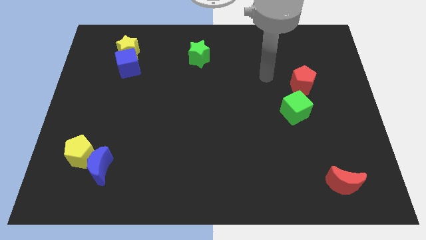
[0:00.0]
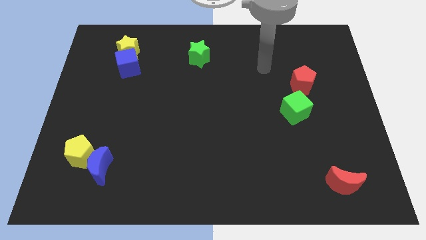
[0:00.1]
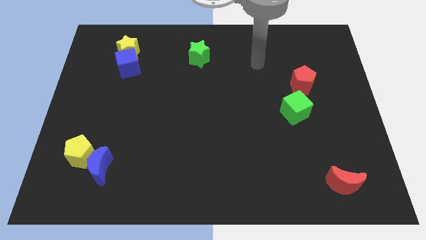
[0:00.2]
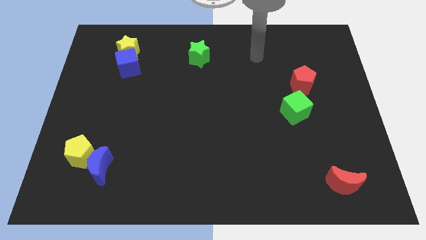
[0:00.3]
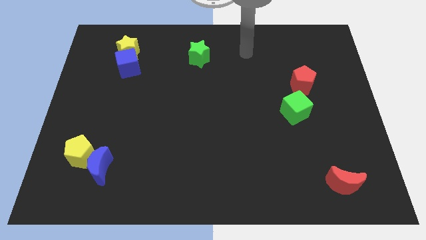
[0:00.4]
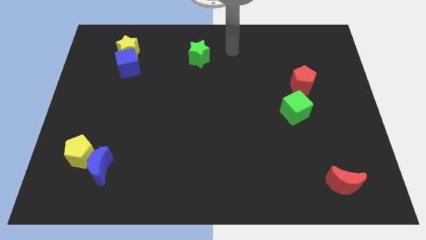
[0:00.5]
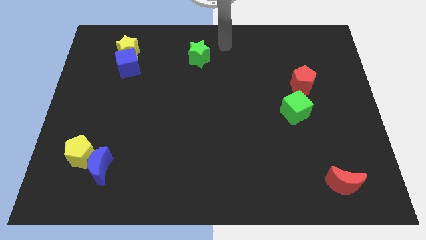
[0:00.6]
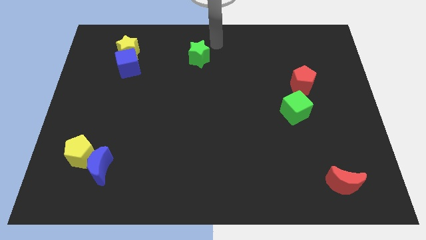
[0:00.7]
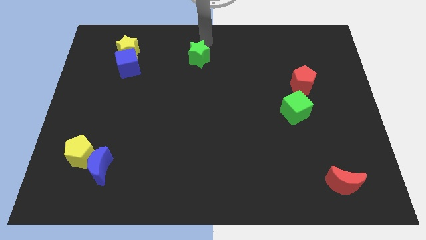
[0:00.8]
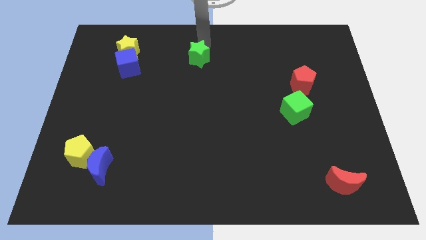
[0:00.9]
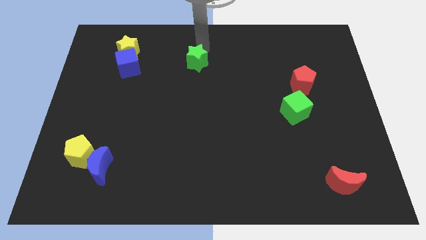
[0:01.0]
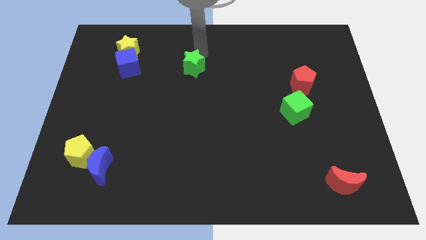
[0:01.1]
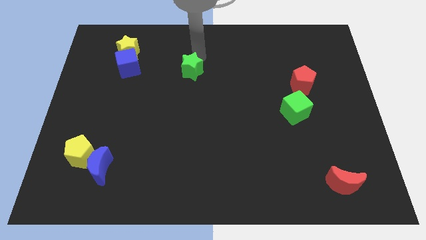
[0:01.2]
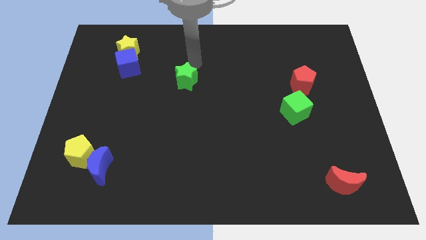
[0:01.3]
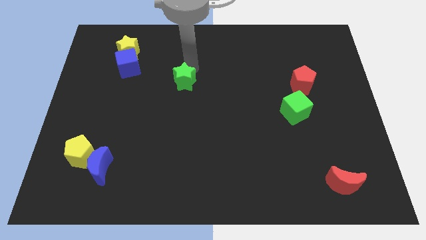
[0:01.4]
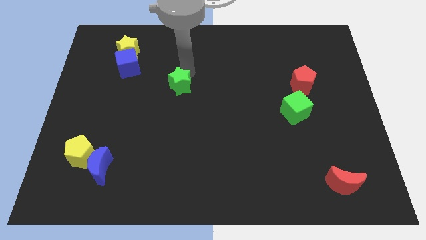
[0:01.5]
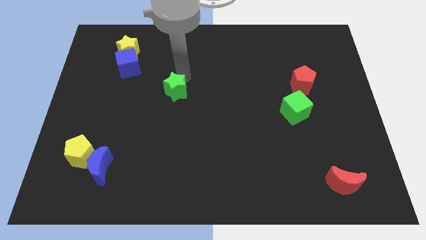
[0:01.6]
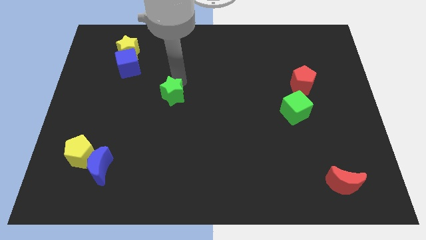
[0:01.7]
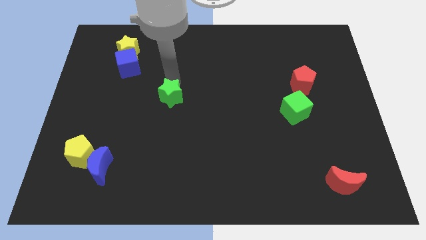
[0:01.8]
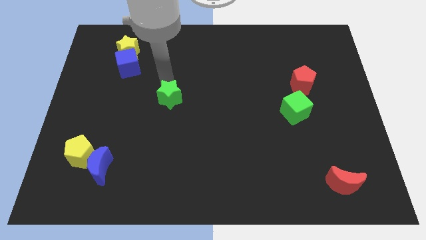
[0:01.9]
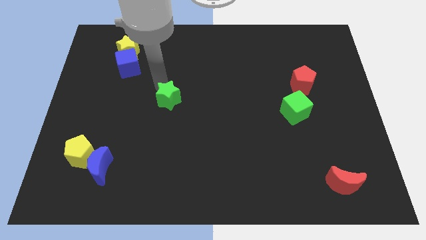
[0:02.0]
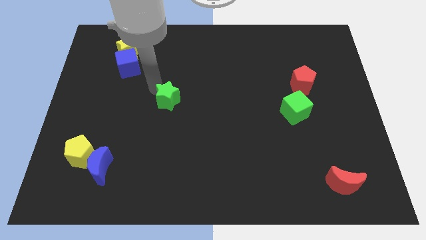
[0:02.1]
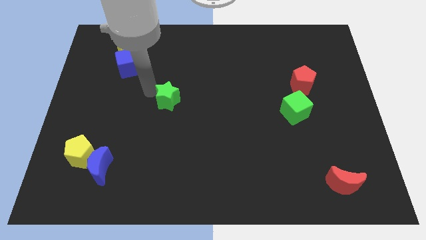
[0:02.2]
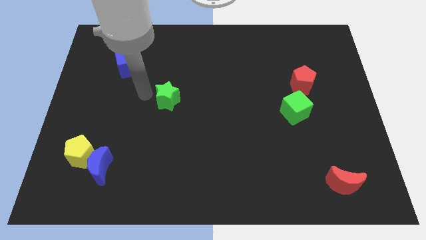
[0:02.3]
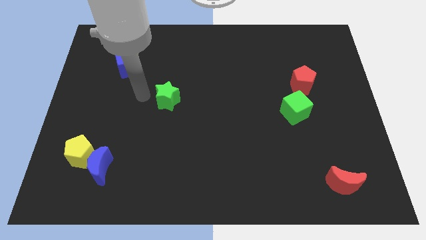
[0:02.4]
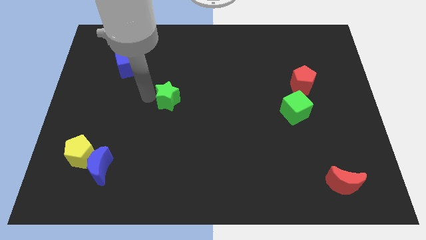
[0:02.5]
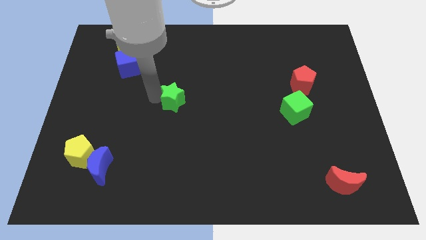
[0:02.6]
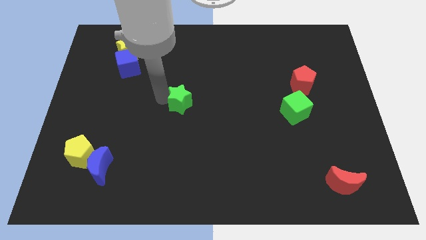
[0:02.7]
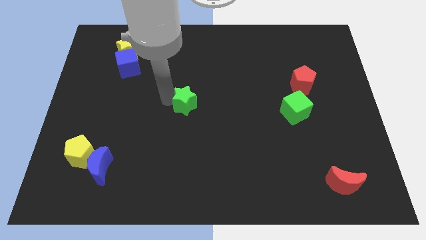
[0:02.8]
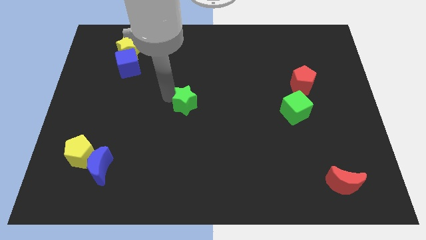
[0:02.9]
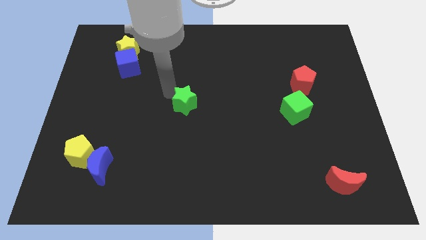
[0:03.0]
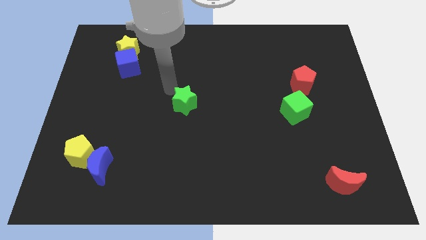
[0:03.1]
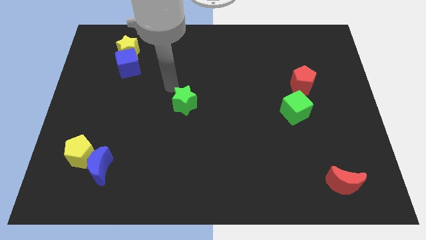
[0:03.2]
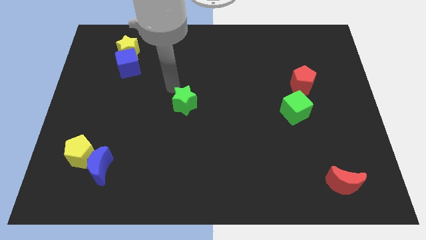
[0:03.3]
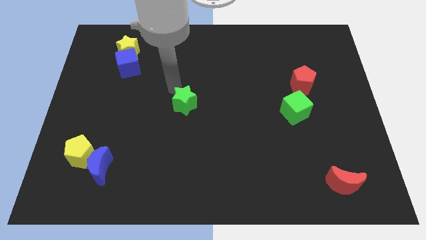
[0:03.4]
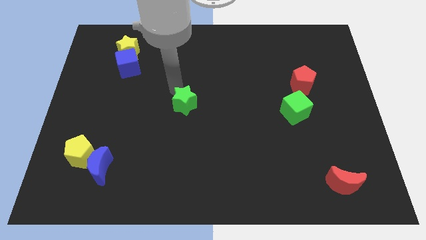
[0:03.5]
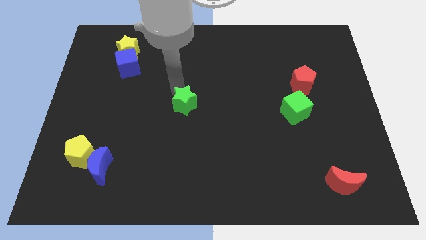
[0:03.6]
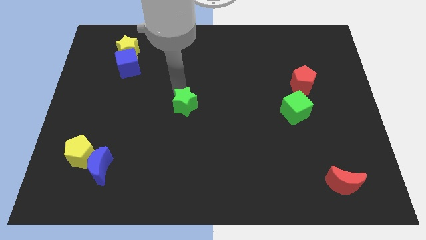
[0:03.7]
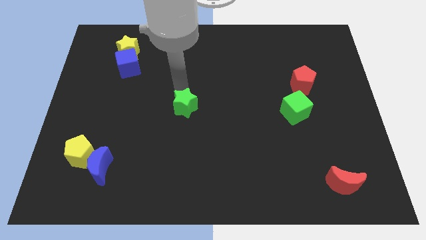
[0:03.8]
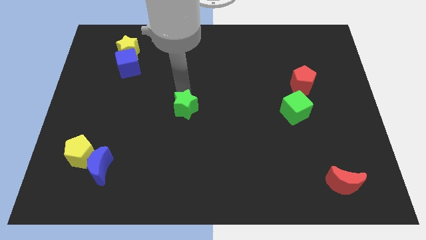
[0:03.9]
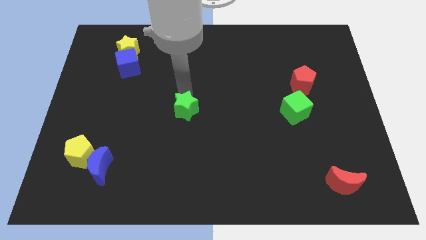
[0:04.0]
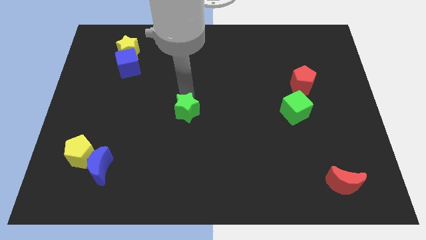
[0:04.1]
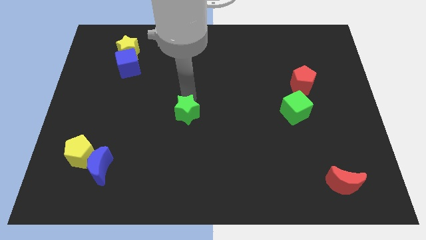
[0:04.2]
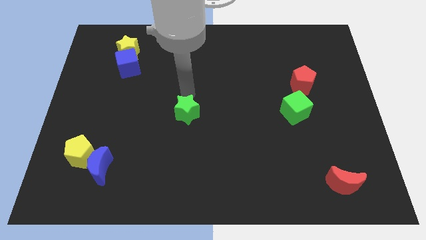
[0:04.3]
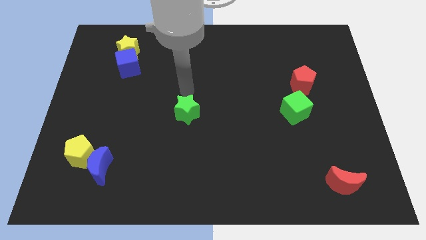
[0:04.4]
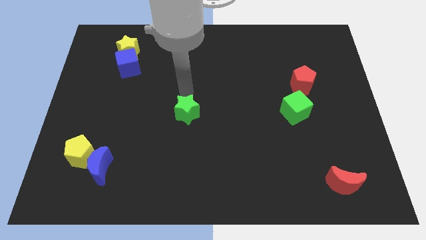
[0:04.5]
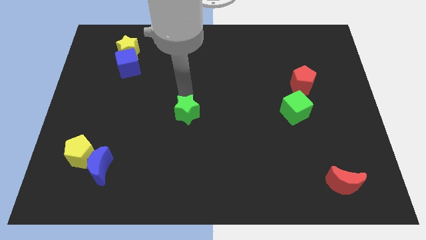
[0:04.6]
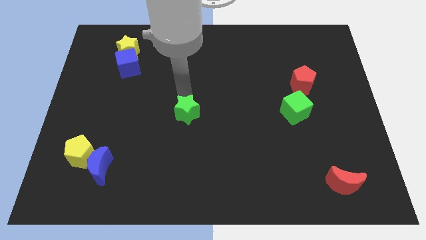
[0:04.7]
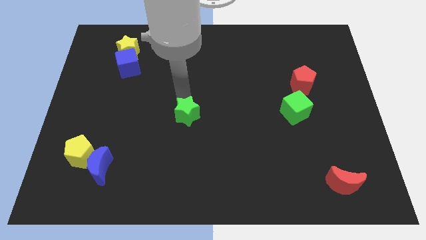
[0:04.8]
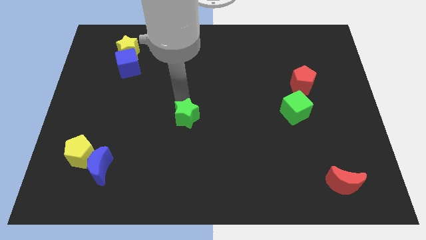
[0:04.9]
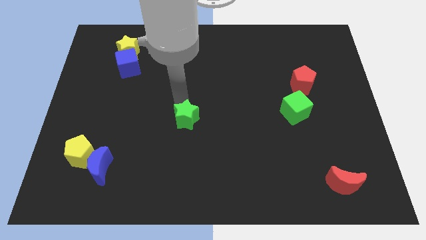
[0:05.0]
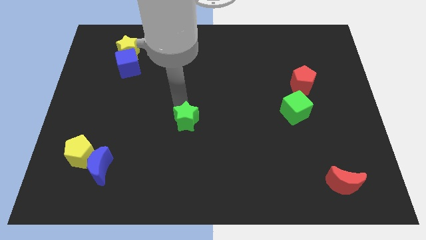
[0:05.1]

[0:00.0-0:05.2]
move the green star down

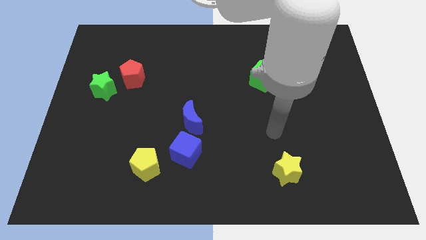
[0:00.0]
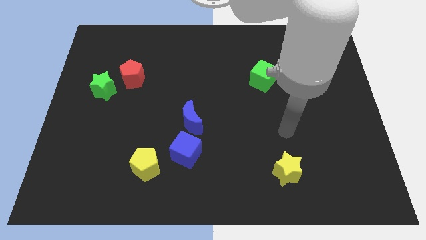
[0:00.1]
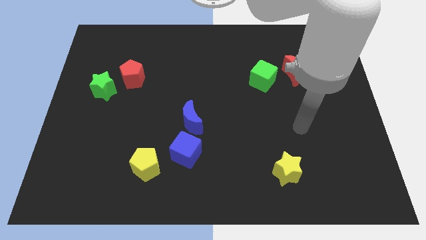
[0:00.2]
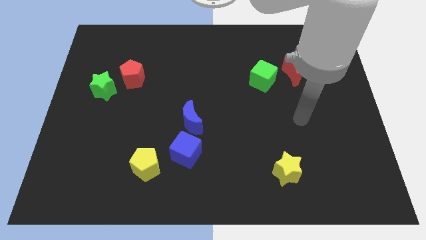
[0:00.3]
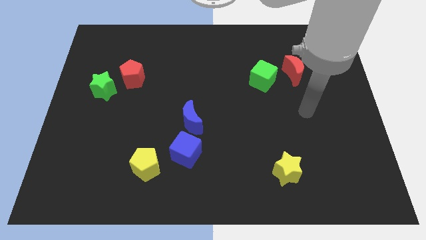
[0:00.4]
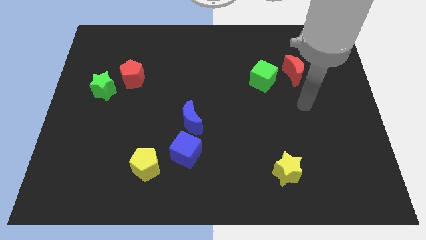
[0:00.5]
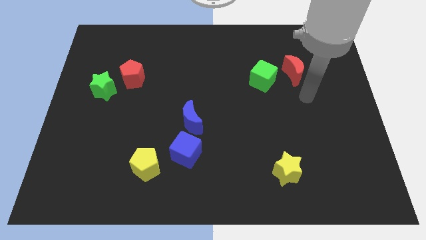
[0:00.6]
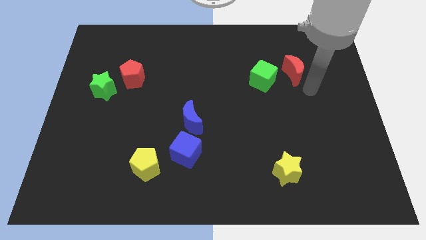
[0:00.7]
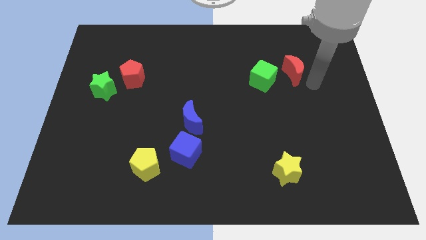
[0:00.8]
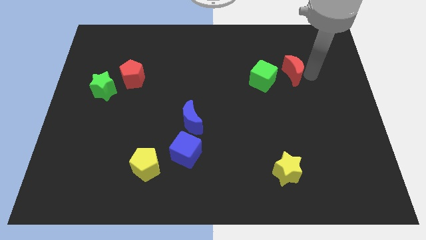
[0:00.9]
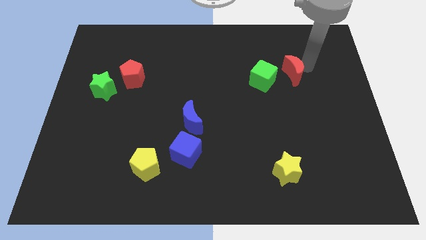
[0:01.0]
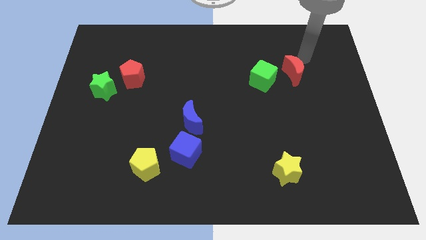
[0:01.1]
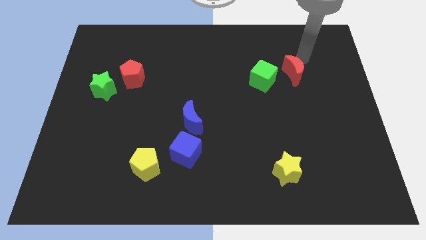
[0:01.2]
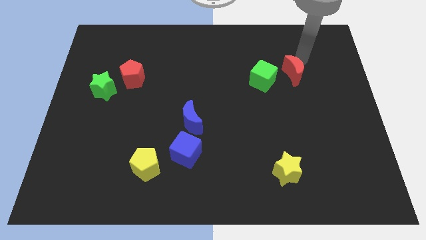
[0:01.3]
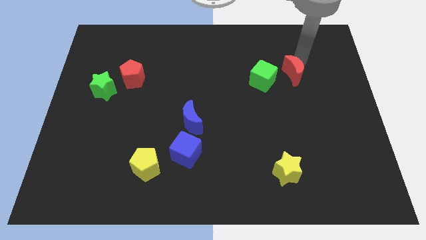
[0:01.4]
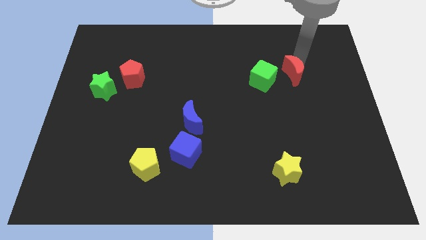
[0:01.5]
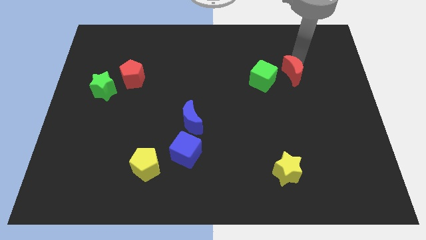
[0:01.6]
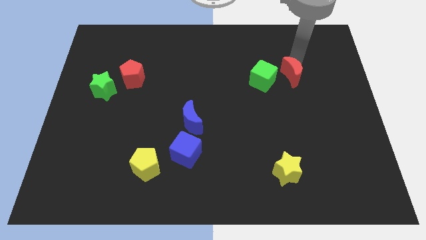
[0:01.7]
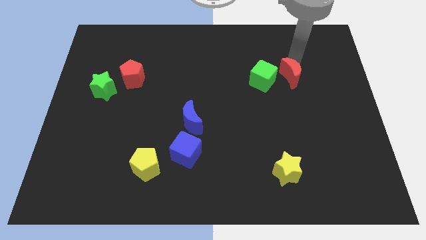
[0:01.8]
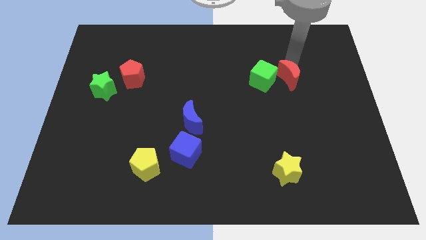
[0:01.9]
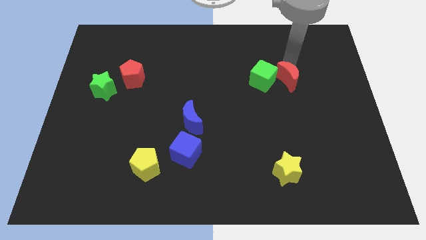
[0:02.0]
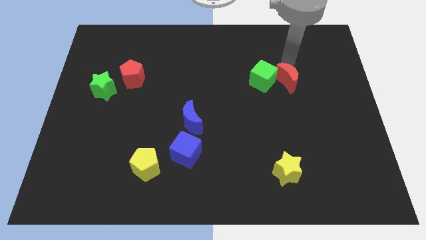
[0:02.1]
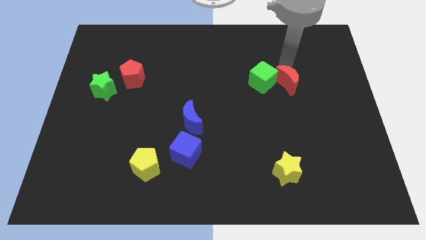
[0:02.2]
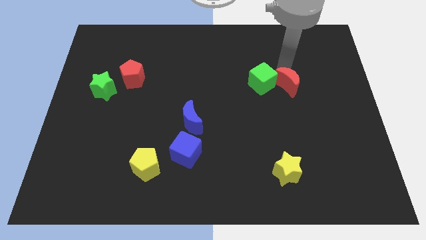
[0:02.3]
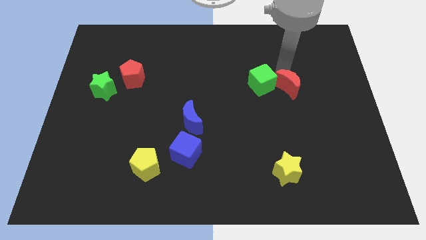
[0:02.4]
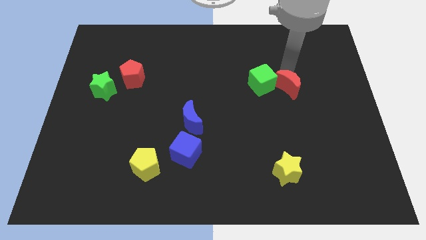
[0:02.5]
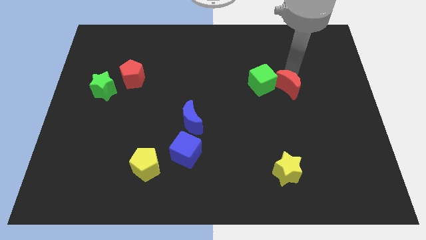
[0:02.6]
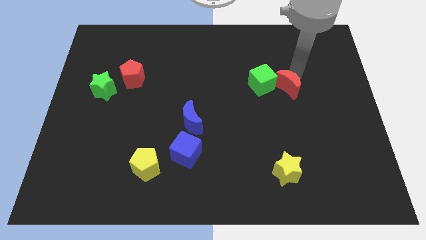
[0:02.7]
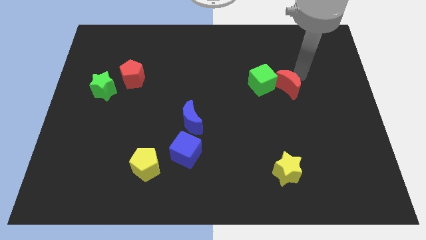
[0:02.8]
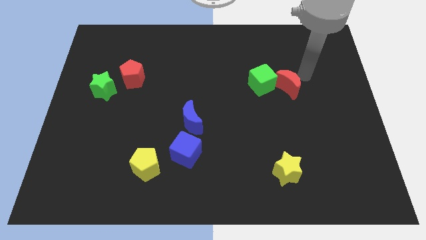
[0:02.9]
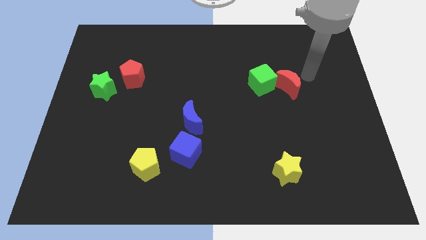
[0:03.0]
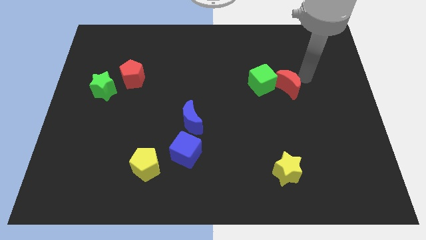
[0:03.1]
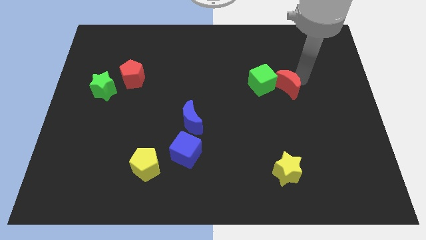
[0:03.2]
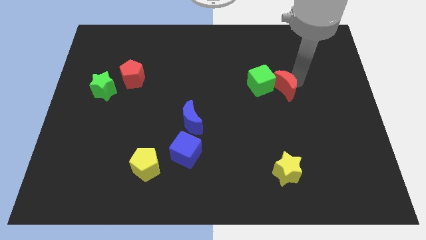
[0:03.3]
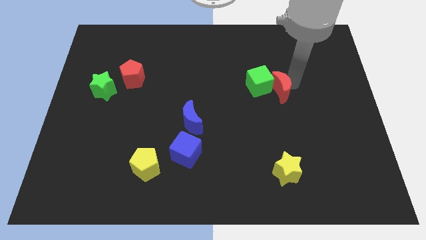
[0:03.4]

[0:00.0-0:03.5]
slightly slide the red moon downwards and left
